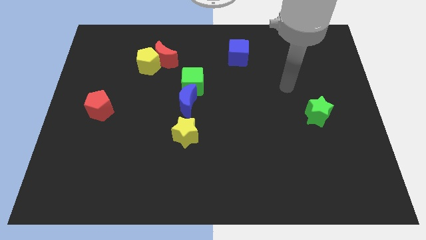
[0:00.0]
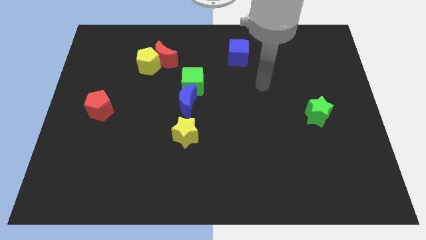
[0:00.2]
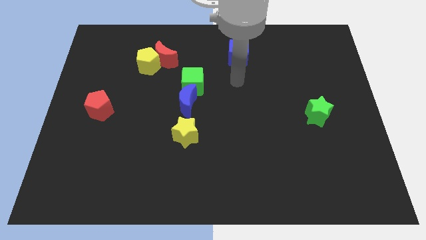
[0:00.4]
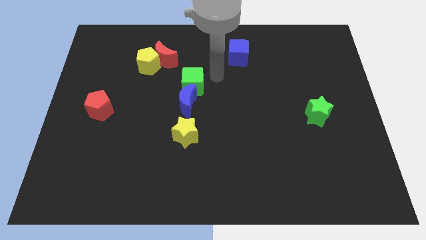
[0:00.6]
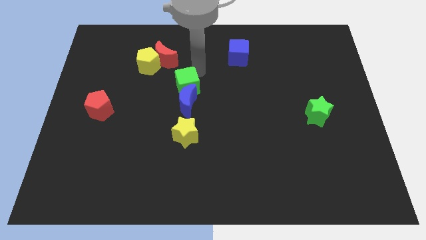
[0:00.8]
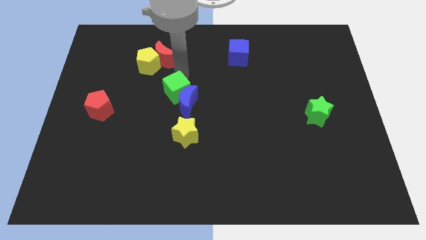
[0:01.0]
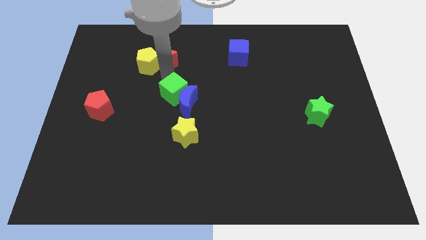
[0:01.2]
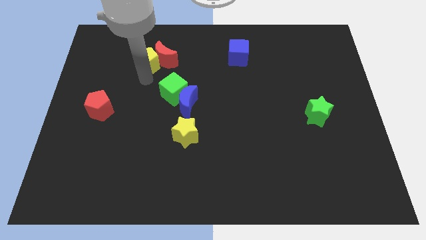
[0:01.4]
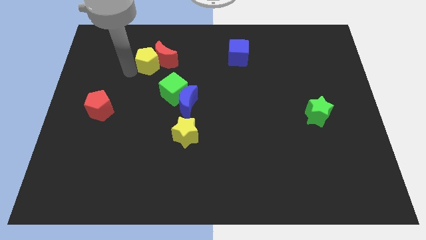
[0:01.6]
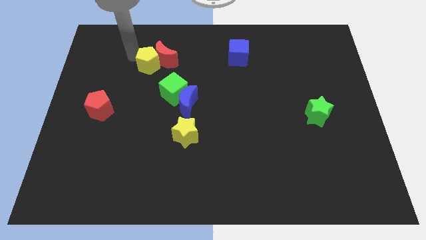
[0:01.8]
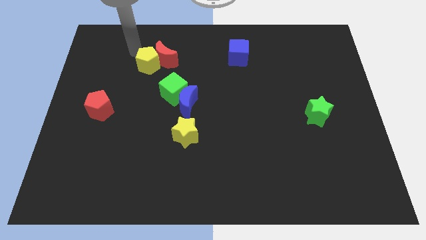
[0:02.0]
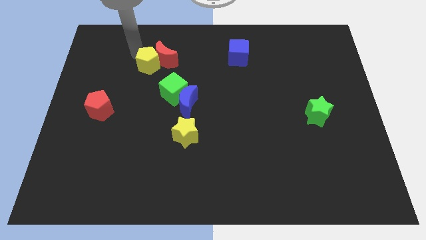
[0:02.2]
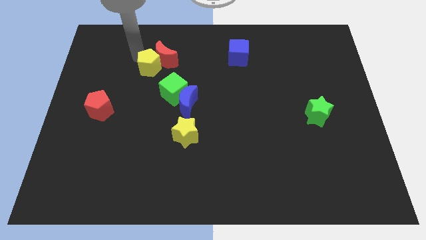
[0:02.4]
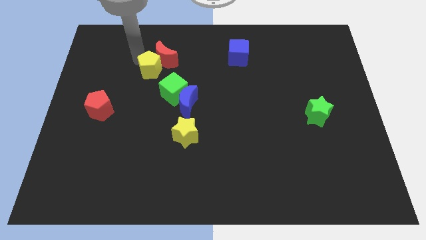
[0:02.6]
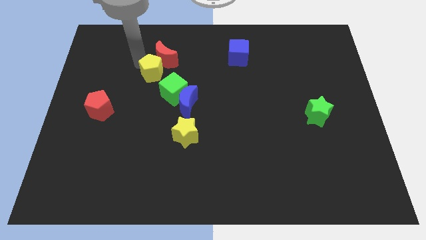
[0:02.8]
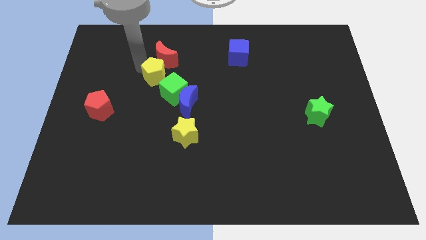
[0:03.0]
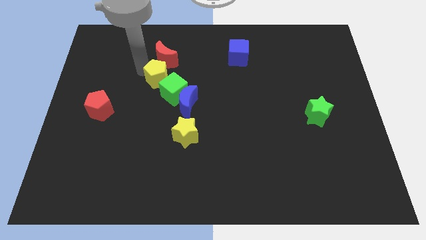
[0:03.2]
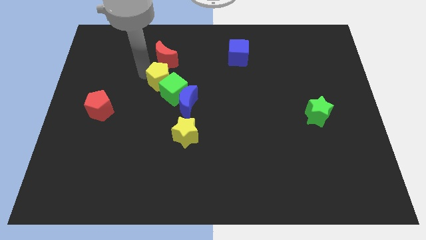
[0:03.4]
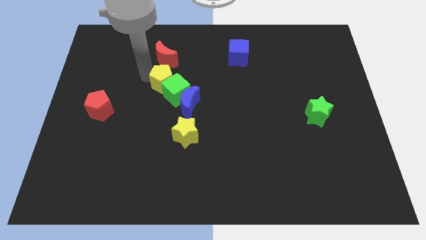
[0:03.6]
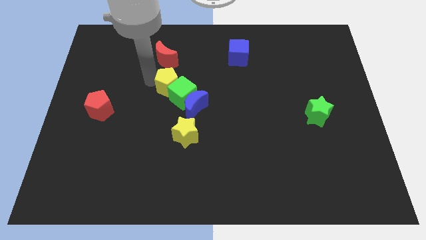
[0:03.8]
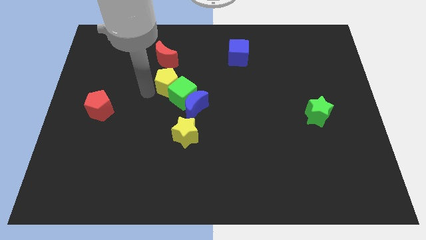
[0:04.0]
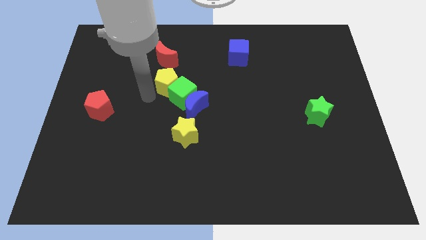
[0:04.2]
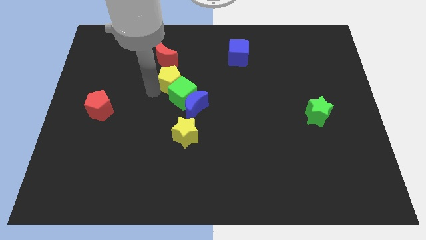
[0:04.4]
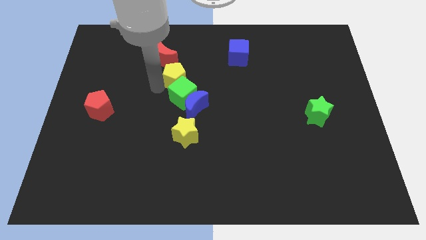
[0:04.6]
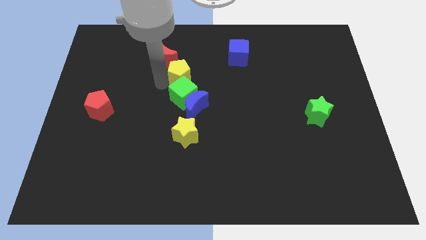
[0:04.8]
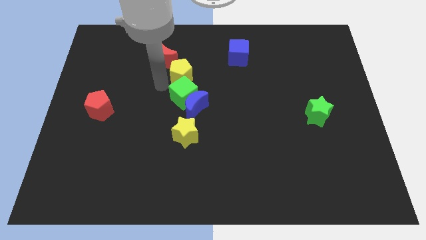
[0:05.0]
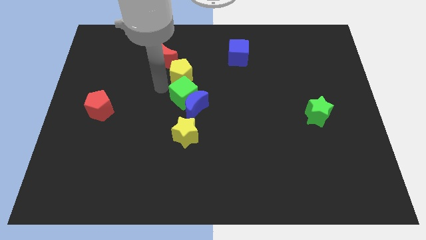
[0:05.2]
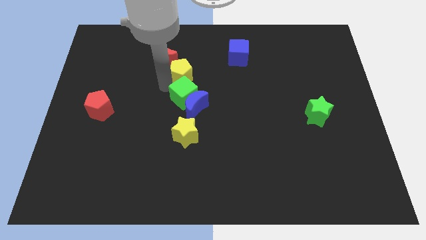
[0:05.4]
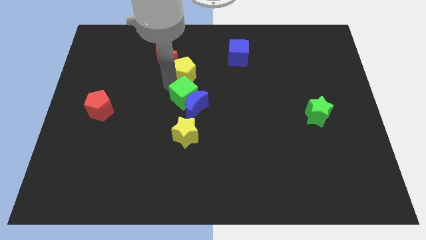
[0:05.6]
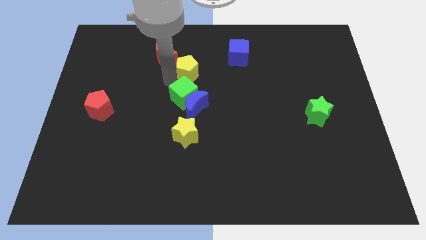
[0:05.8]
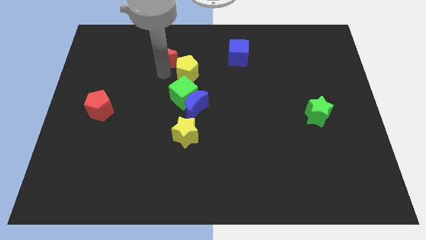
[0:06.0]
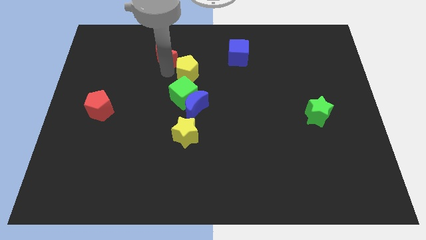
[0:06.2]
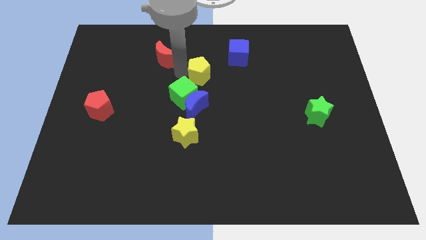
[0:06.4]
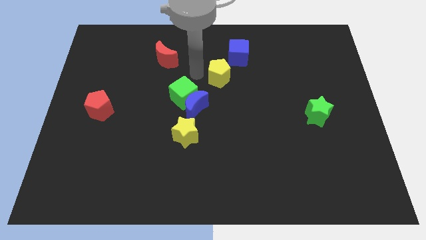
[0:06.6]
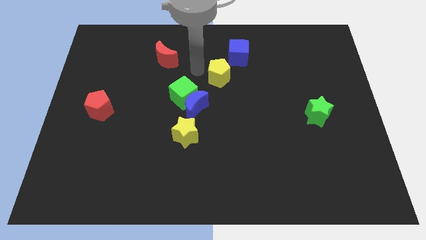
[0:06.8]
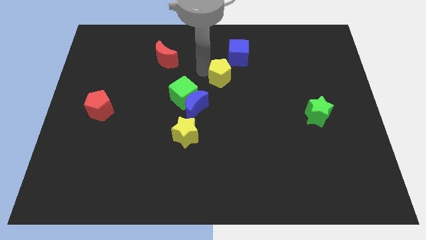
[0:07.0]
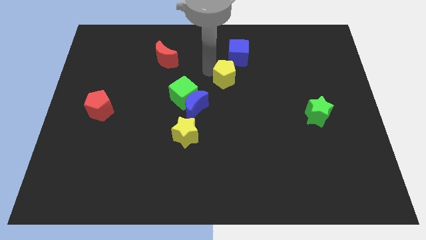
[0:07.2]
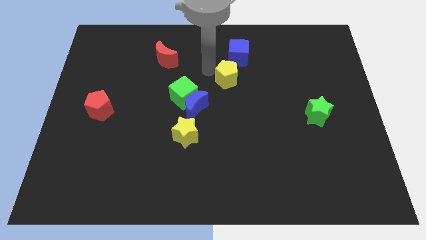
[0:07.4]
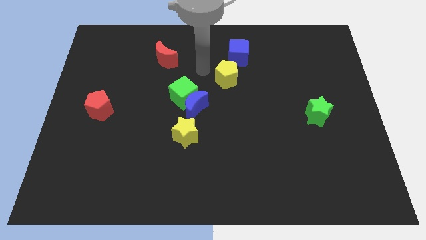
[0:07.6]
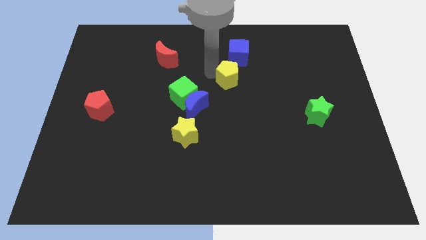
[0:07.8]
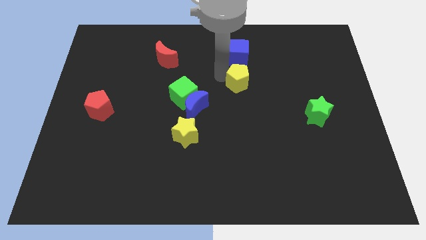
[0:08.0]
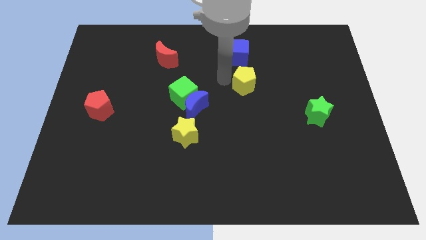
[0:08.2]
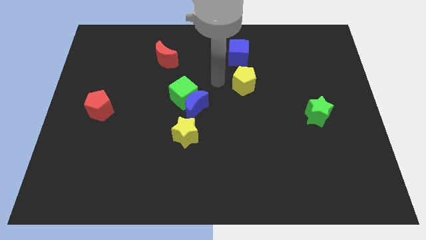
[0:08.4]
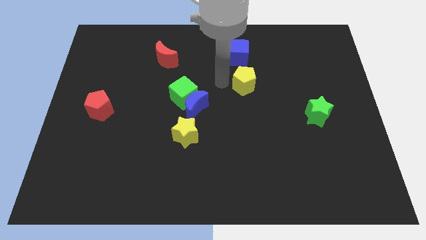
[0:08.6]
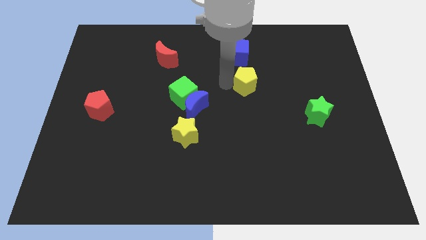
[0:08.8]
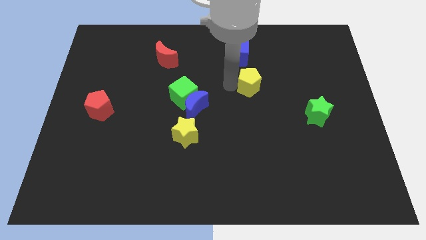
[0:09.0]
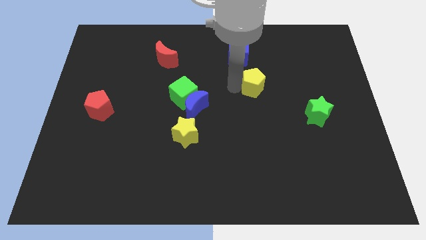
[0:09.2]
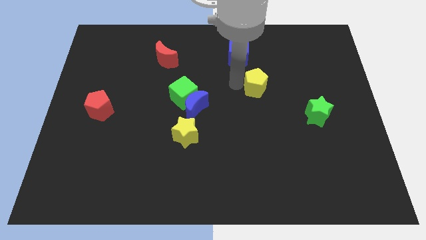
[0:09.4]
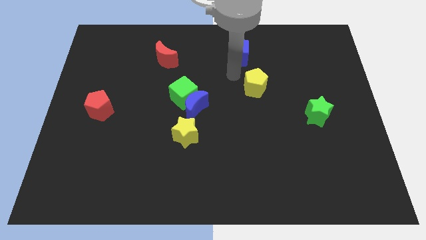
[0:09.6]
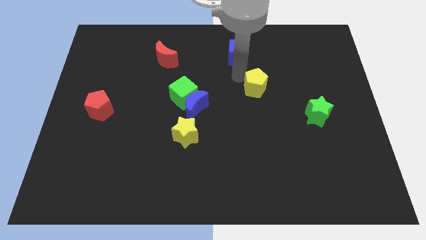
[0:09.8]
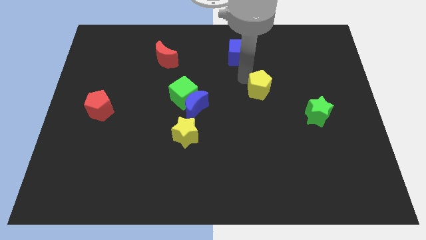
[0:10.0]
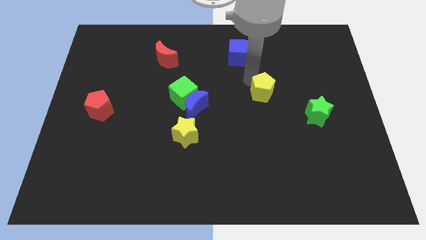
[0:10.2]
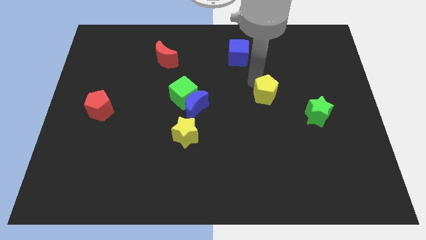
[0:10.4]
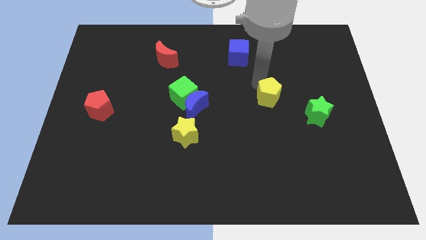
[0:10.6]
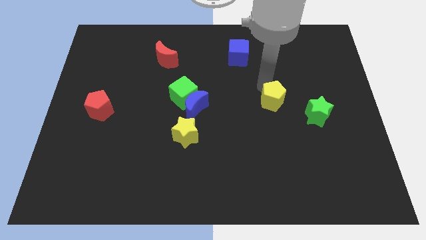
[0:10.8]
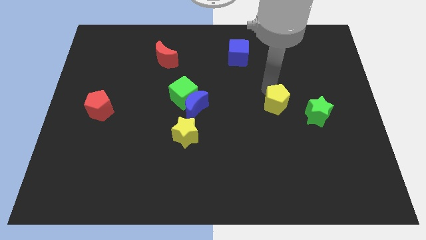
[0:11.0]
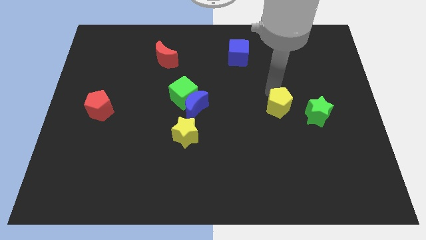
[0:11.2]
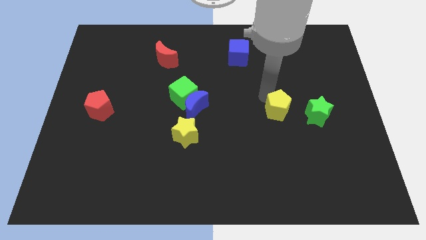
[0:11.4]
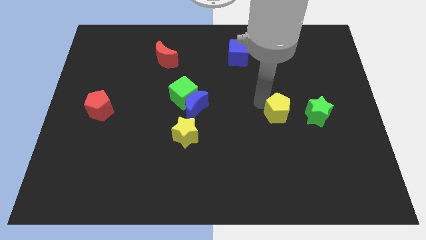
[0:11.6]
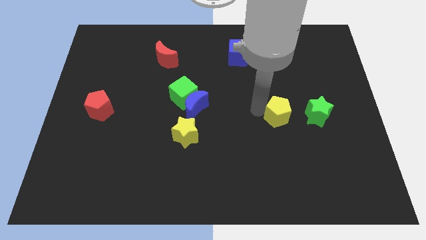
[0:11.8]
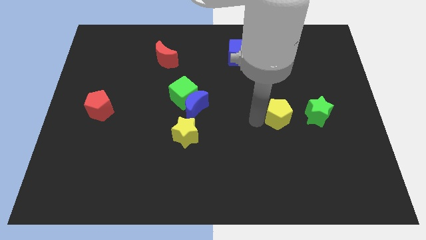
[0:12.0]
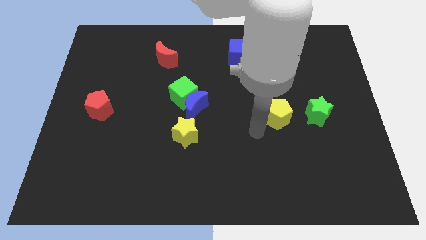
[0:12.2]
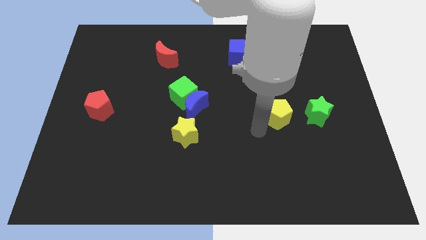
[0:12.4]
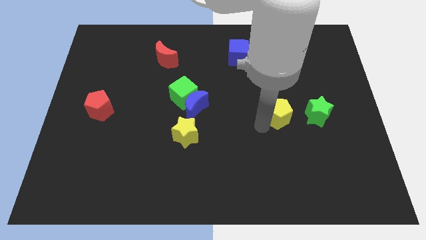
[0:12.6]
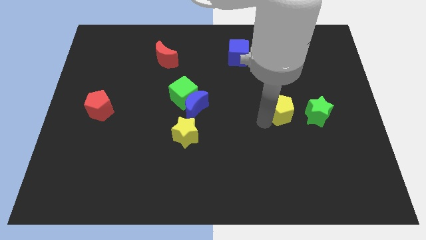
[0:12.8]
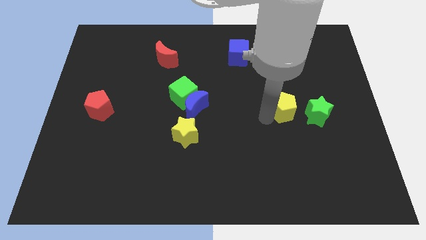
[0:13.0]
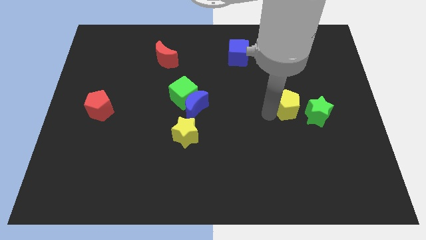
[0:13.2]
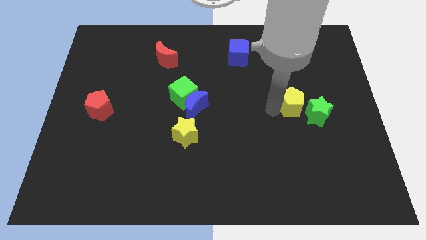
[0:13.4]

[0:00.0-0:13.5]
slide the yellow pentagon to the green star
